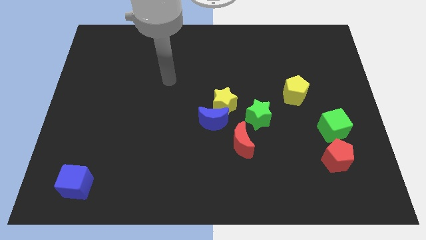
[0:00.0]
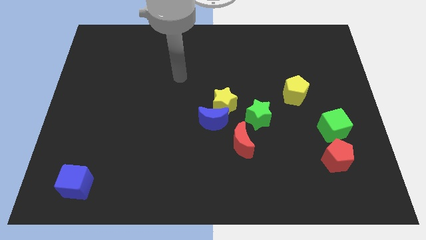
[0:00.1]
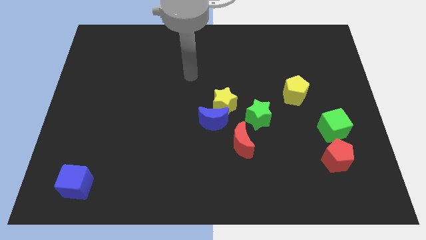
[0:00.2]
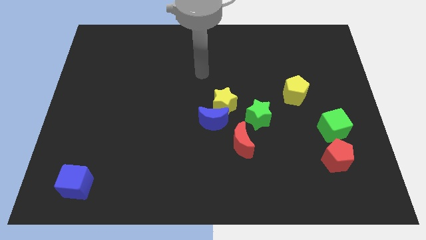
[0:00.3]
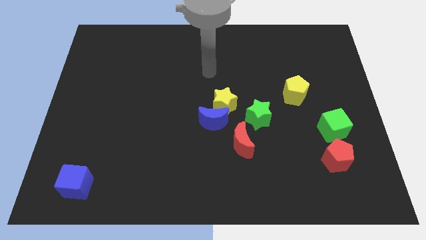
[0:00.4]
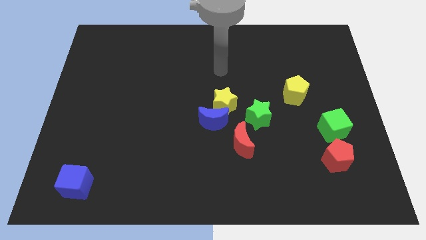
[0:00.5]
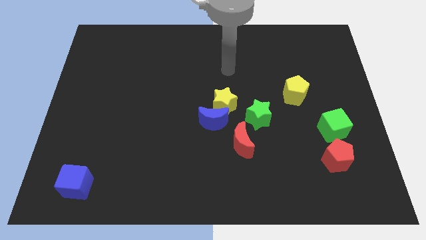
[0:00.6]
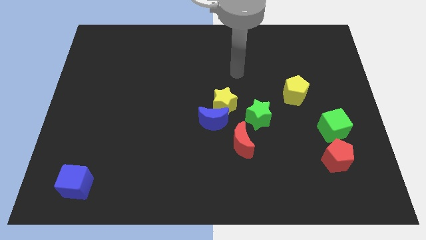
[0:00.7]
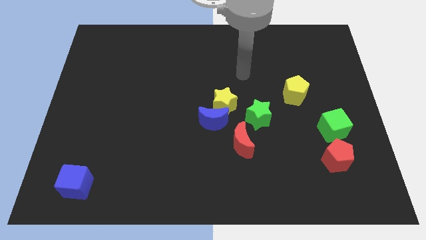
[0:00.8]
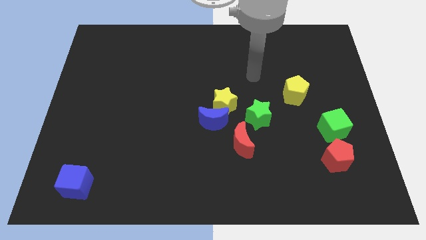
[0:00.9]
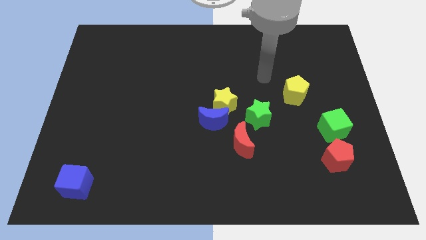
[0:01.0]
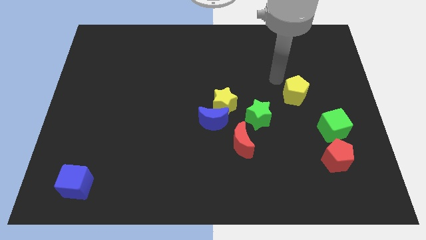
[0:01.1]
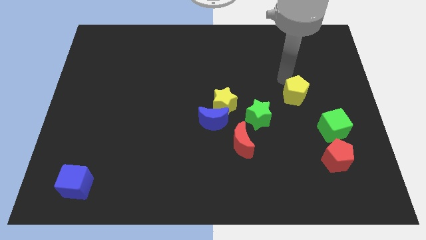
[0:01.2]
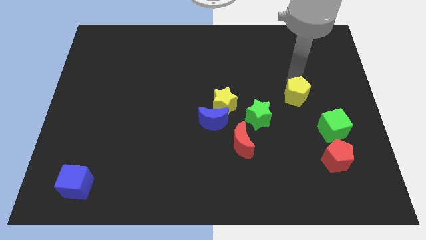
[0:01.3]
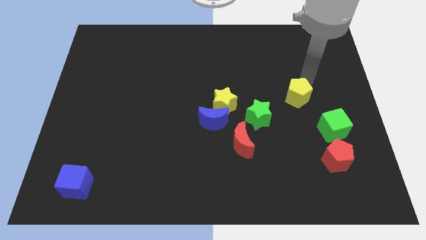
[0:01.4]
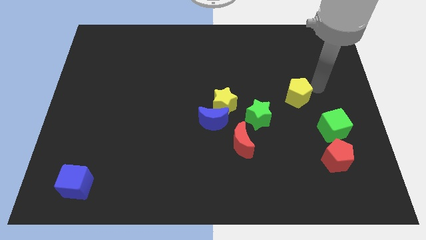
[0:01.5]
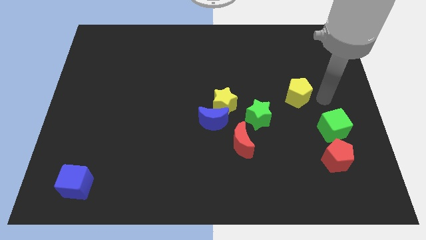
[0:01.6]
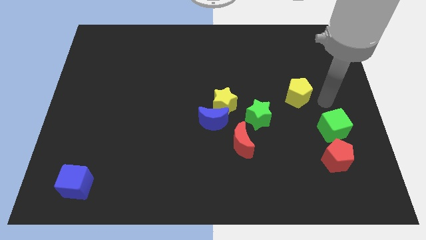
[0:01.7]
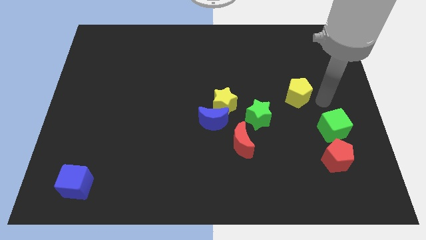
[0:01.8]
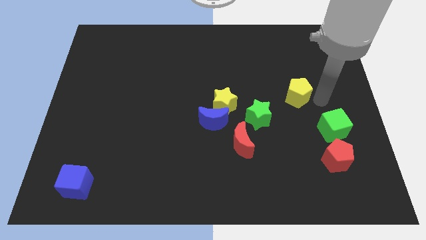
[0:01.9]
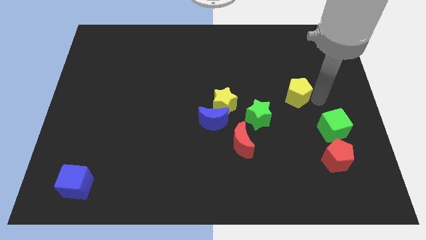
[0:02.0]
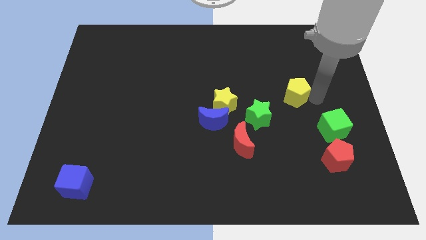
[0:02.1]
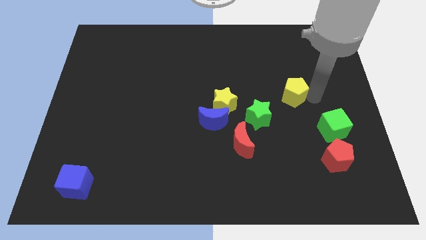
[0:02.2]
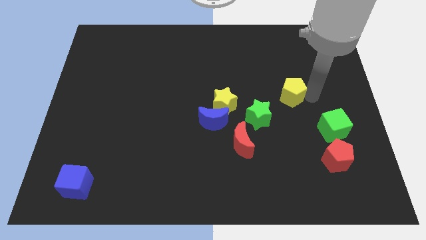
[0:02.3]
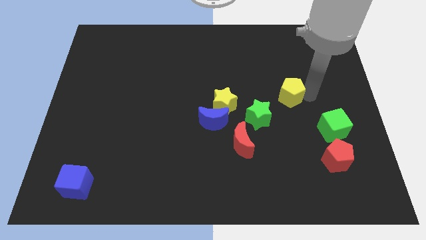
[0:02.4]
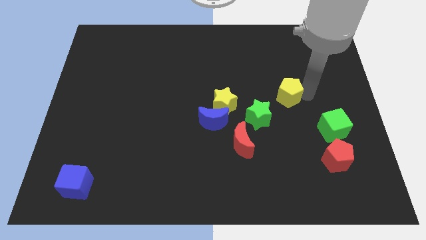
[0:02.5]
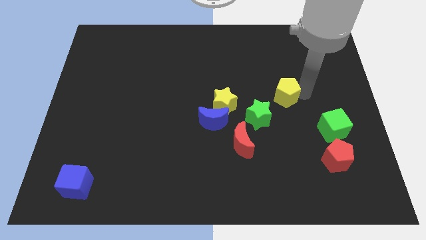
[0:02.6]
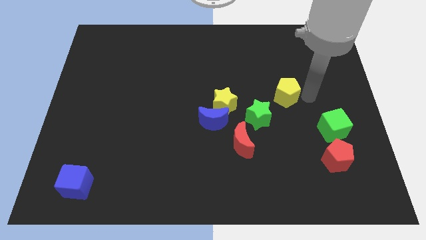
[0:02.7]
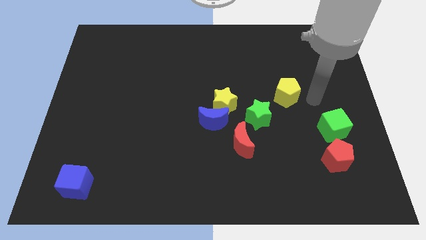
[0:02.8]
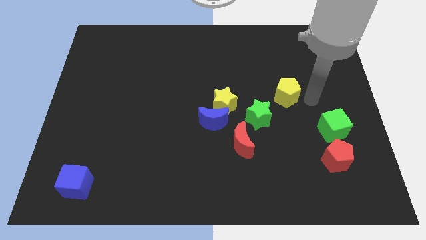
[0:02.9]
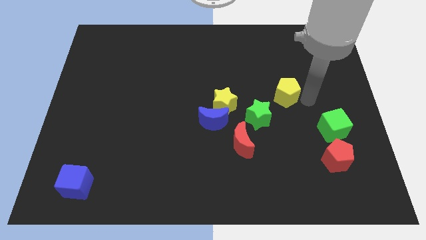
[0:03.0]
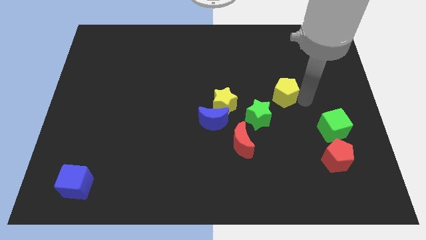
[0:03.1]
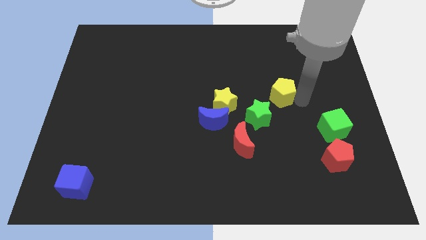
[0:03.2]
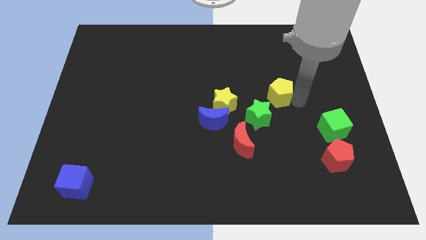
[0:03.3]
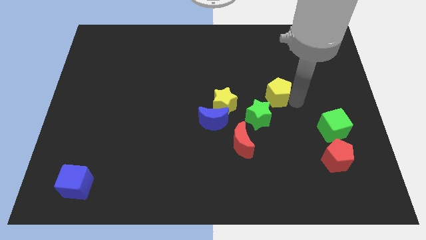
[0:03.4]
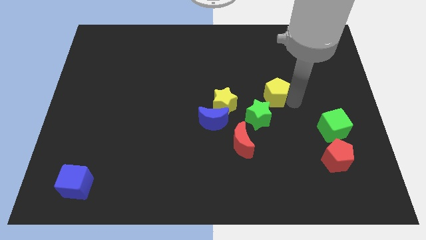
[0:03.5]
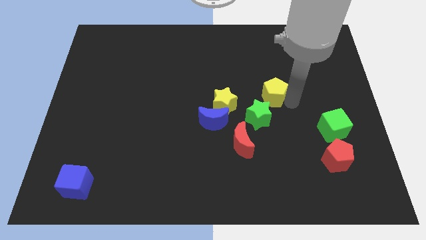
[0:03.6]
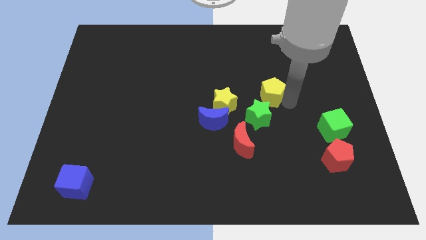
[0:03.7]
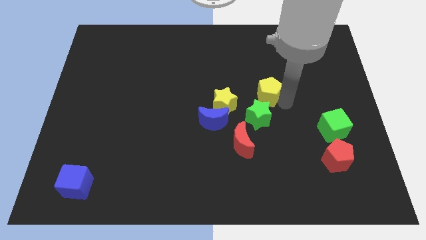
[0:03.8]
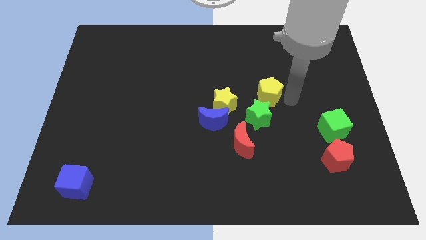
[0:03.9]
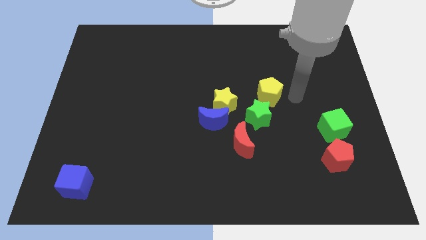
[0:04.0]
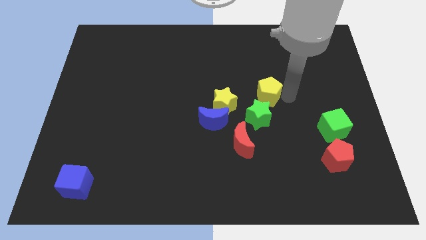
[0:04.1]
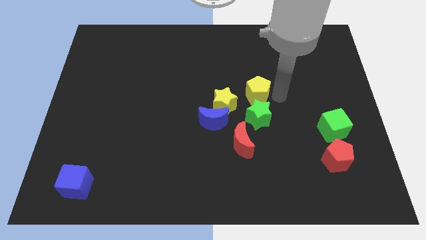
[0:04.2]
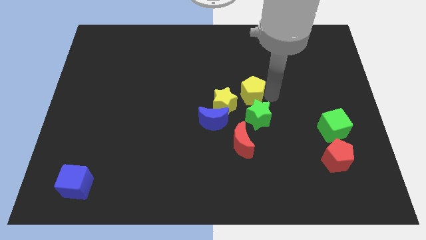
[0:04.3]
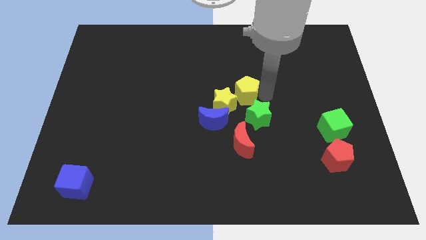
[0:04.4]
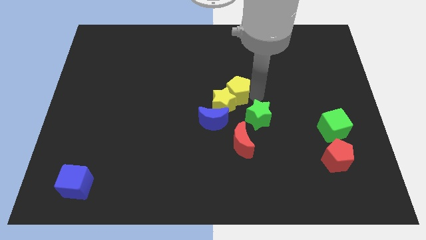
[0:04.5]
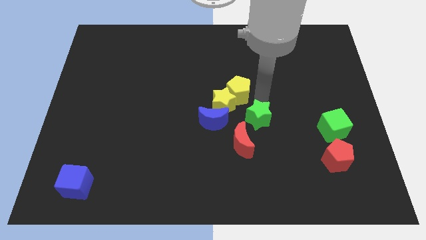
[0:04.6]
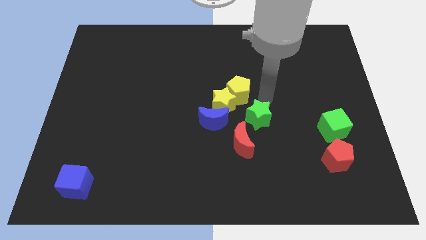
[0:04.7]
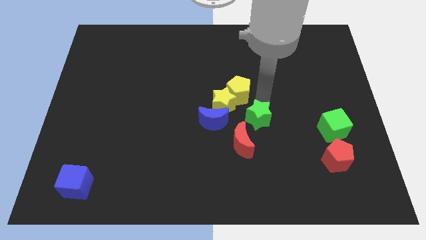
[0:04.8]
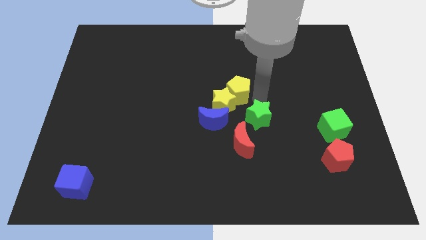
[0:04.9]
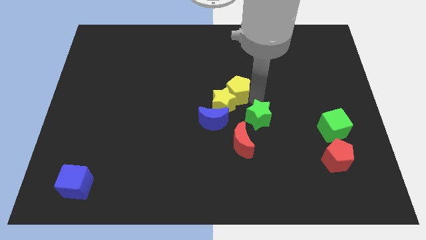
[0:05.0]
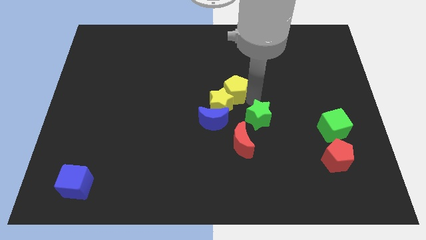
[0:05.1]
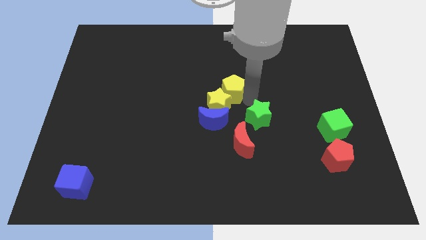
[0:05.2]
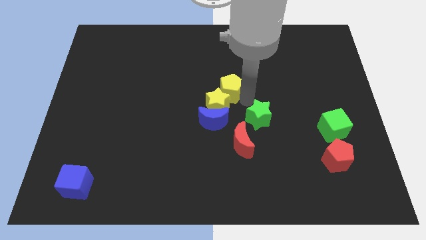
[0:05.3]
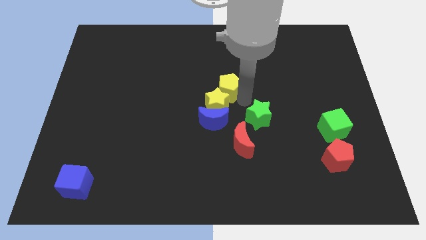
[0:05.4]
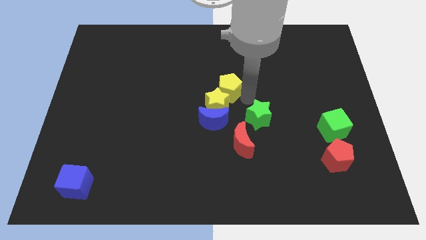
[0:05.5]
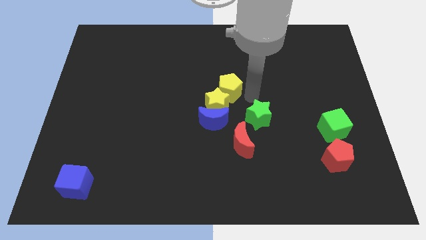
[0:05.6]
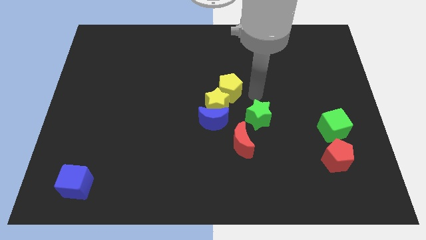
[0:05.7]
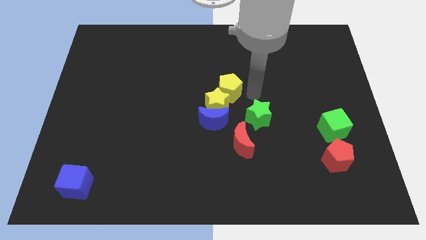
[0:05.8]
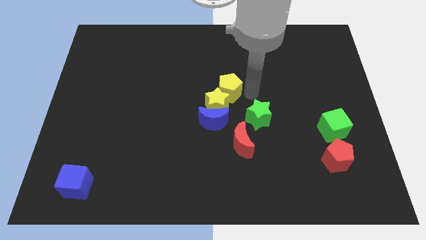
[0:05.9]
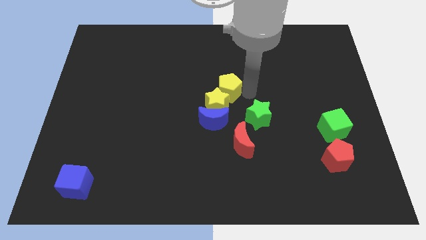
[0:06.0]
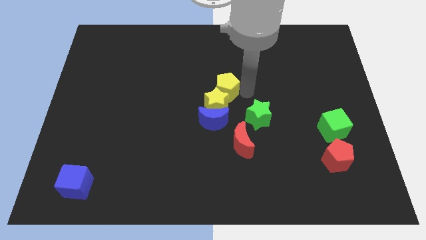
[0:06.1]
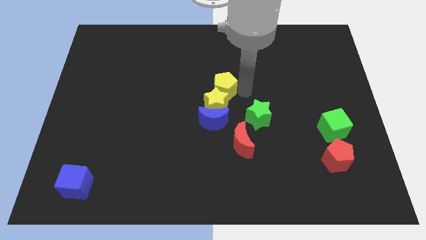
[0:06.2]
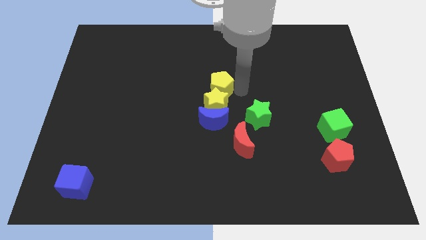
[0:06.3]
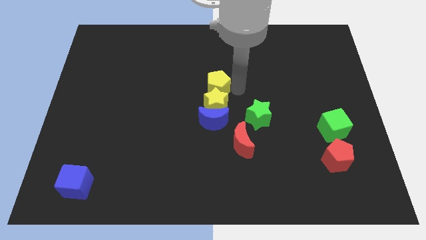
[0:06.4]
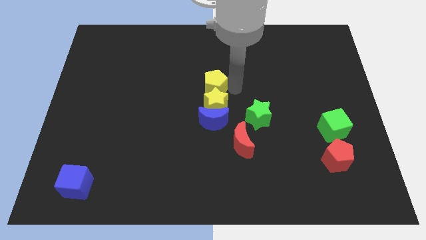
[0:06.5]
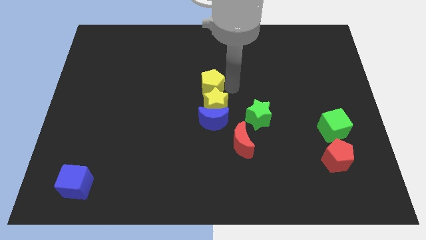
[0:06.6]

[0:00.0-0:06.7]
push the yellow pentagon left

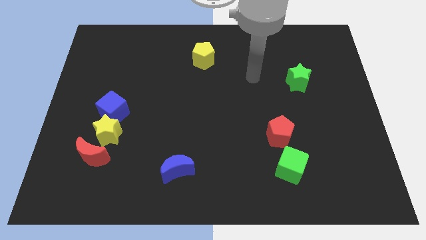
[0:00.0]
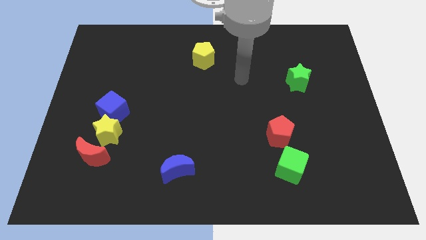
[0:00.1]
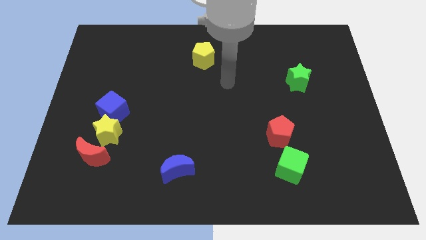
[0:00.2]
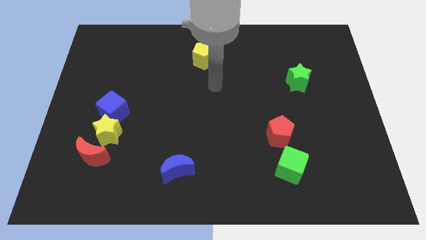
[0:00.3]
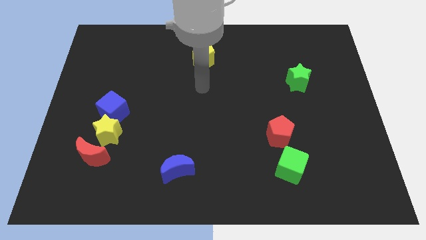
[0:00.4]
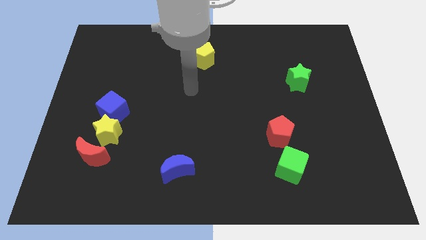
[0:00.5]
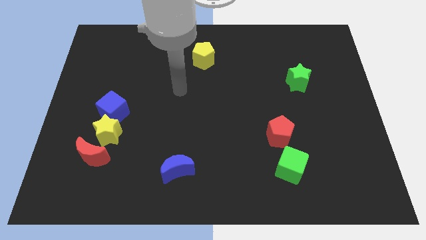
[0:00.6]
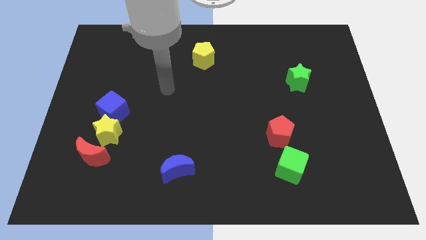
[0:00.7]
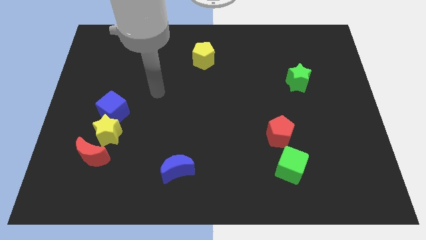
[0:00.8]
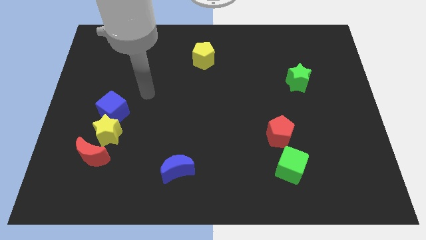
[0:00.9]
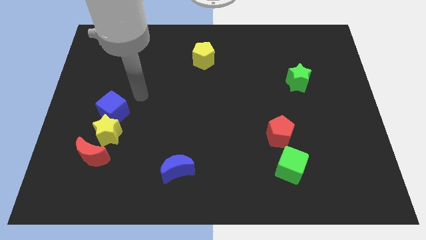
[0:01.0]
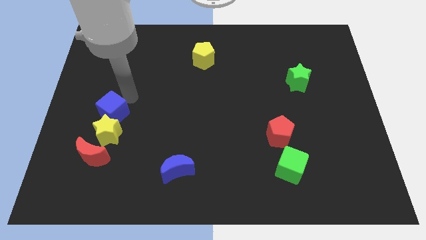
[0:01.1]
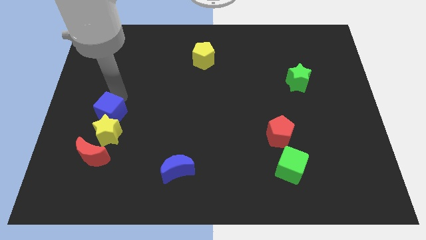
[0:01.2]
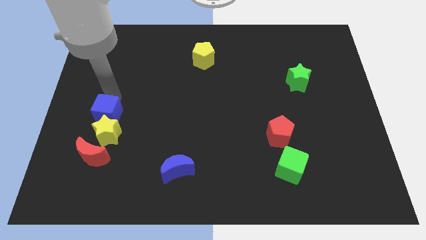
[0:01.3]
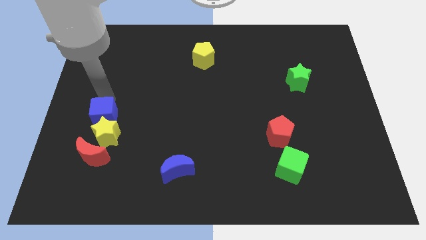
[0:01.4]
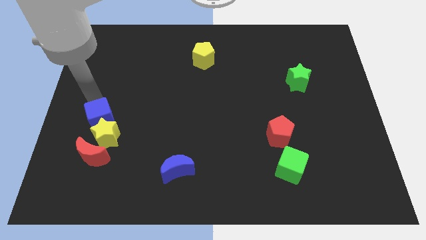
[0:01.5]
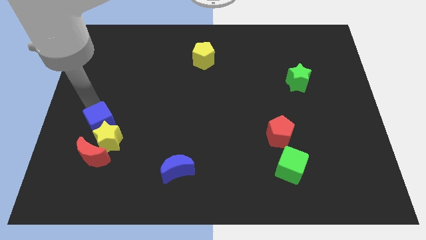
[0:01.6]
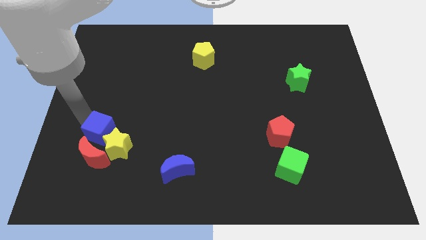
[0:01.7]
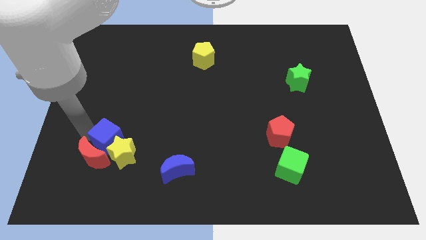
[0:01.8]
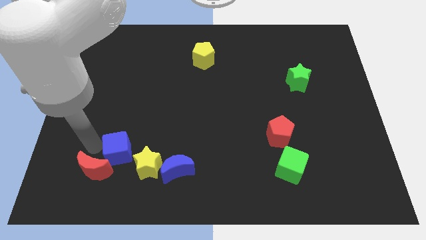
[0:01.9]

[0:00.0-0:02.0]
slide the yellow star to the right a little
